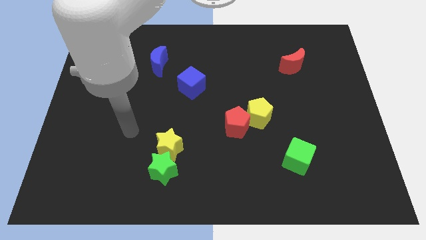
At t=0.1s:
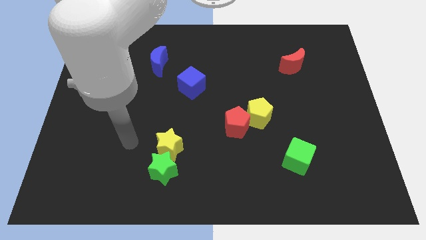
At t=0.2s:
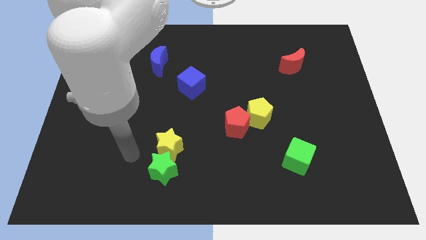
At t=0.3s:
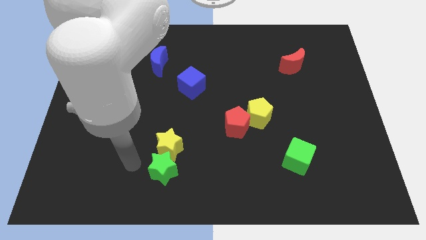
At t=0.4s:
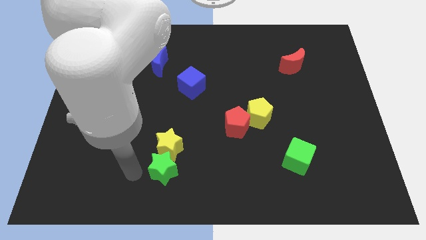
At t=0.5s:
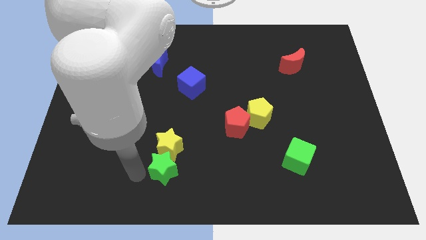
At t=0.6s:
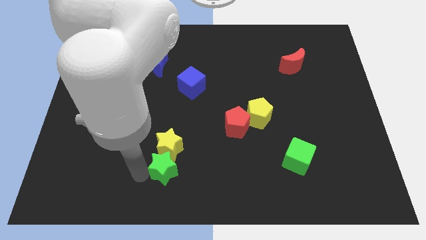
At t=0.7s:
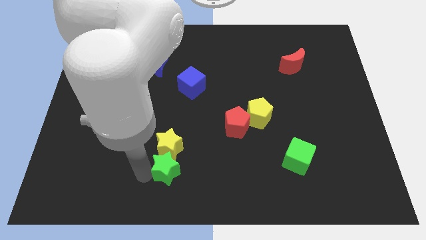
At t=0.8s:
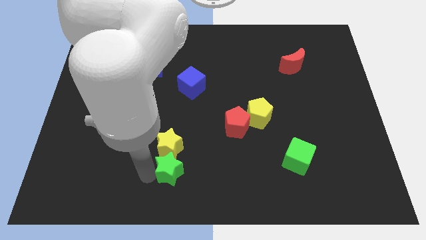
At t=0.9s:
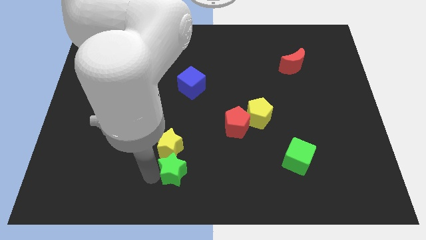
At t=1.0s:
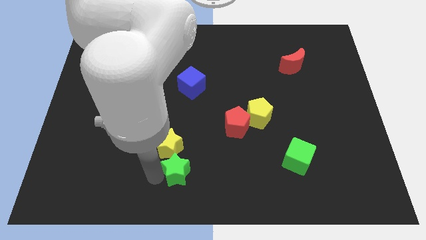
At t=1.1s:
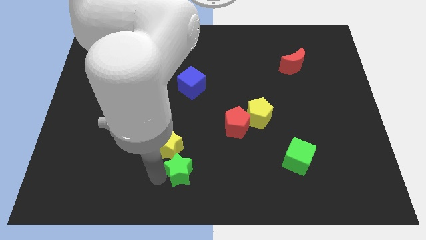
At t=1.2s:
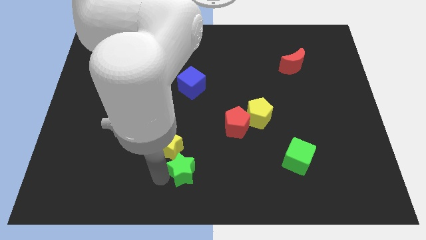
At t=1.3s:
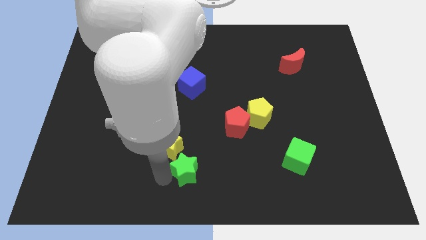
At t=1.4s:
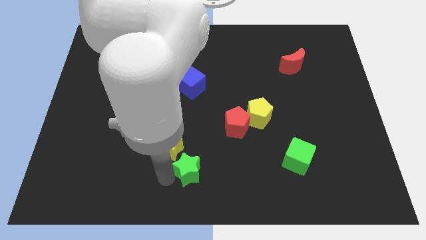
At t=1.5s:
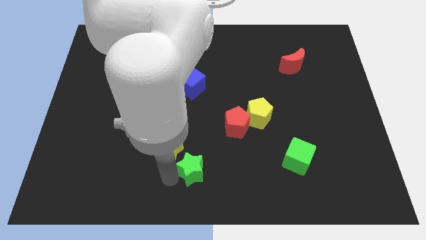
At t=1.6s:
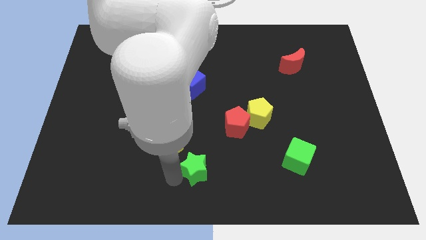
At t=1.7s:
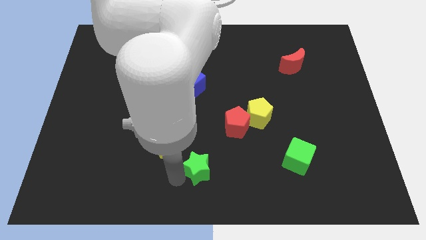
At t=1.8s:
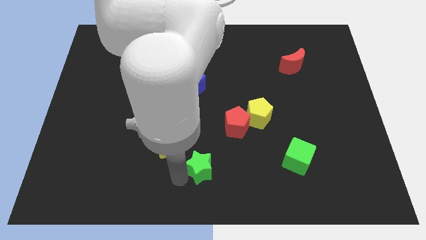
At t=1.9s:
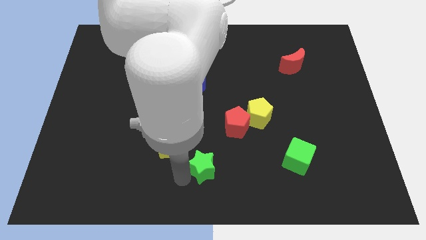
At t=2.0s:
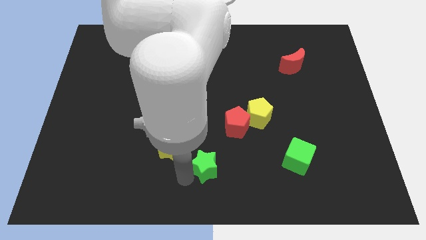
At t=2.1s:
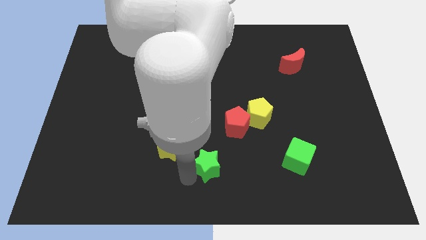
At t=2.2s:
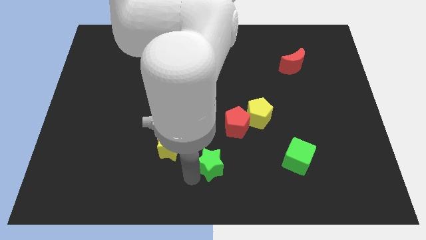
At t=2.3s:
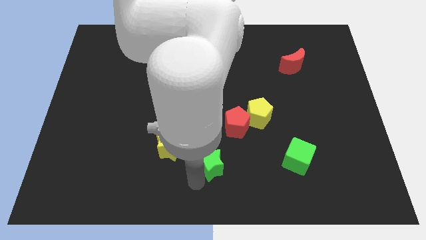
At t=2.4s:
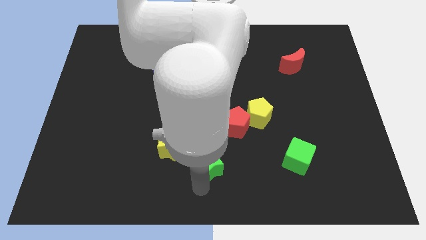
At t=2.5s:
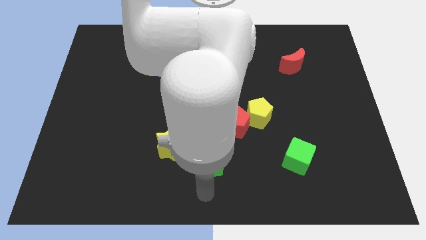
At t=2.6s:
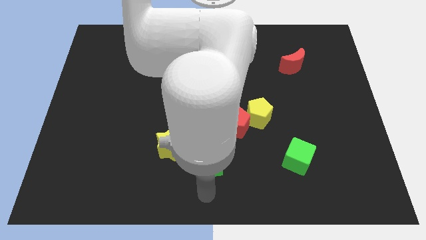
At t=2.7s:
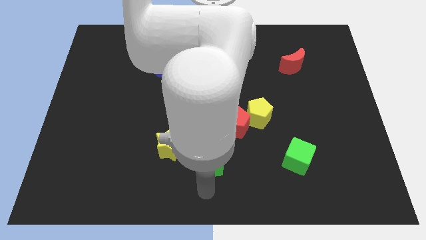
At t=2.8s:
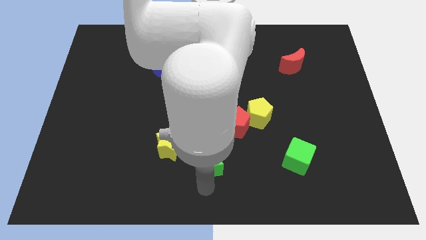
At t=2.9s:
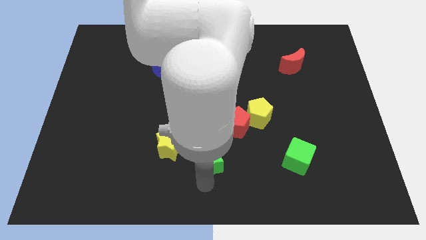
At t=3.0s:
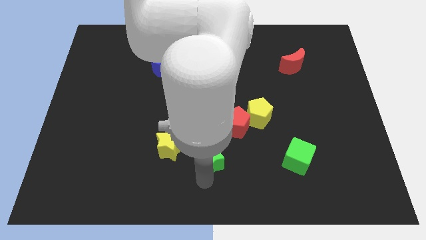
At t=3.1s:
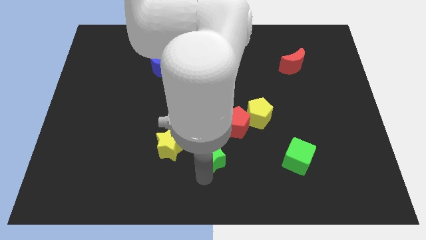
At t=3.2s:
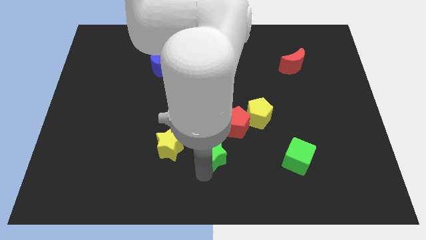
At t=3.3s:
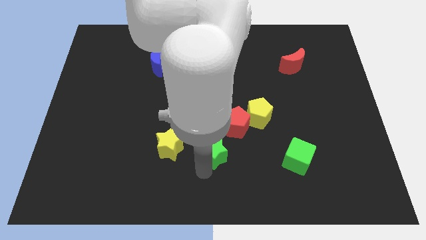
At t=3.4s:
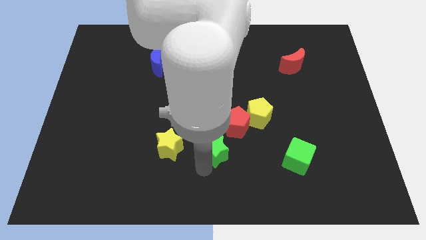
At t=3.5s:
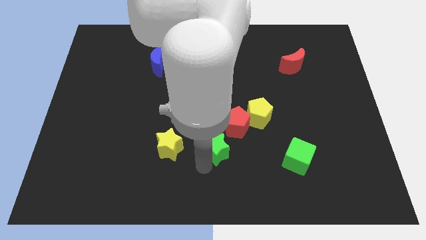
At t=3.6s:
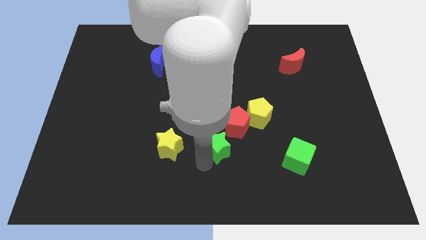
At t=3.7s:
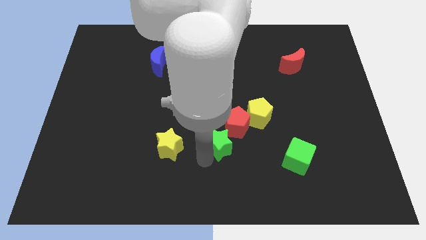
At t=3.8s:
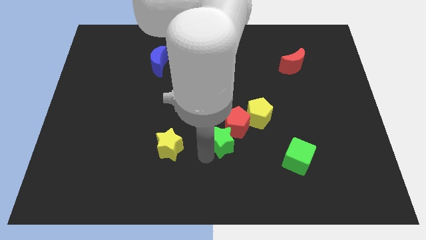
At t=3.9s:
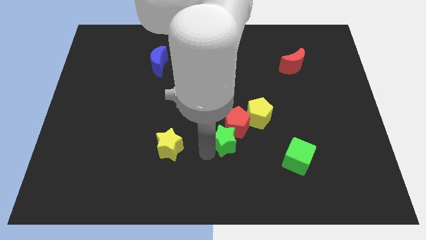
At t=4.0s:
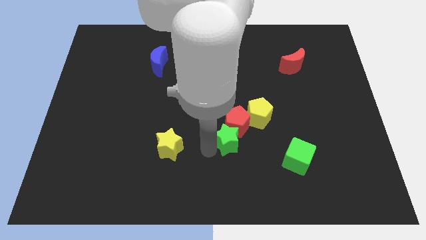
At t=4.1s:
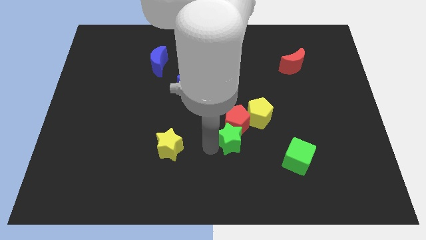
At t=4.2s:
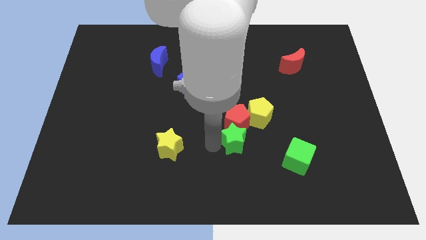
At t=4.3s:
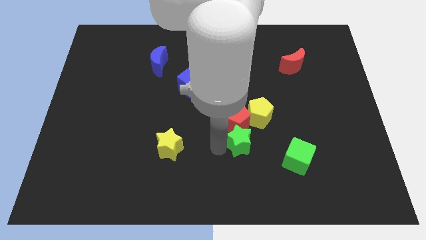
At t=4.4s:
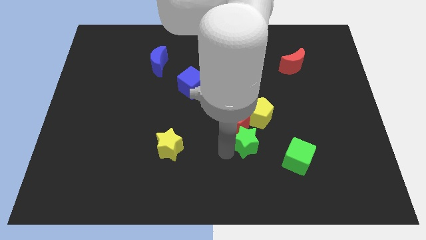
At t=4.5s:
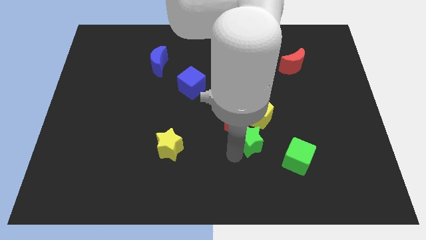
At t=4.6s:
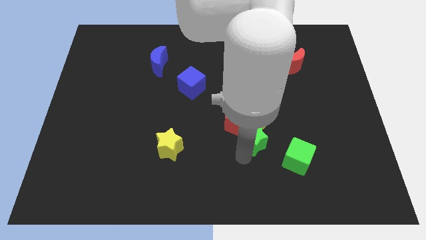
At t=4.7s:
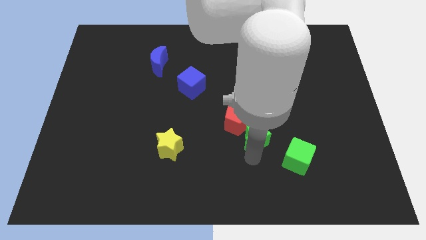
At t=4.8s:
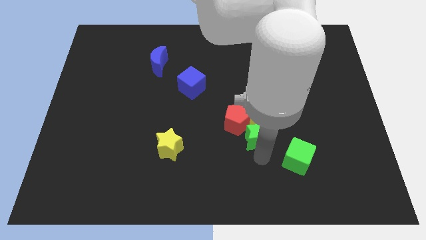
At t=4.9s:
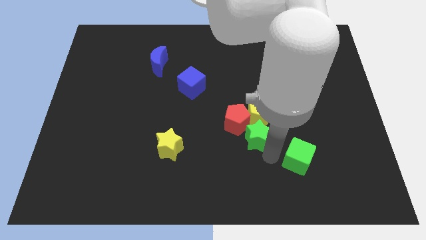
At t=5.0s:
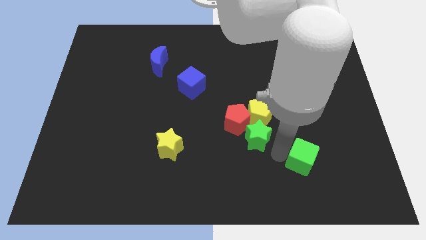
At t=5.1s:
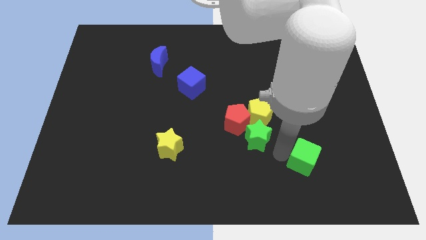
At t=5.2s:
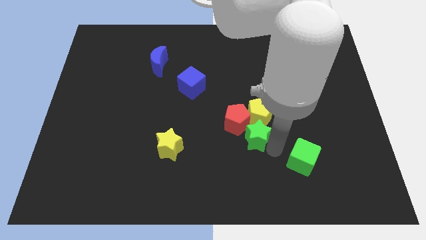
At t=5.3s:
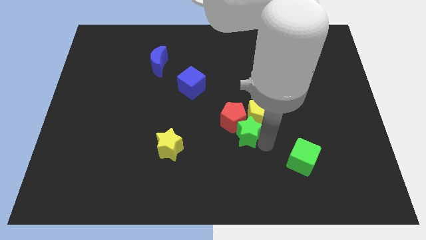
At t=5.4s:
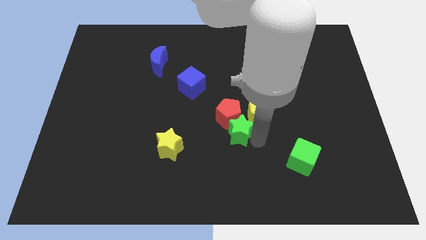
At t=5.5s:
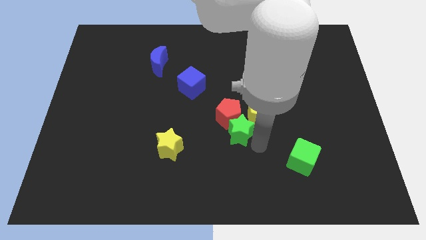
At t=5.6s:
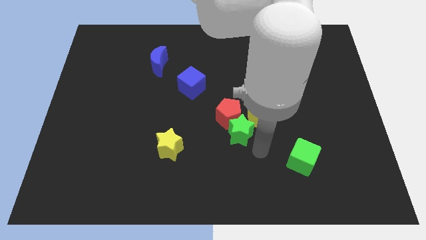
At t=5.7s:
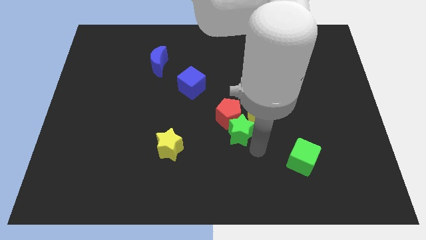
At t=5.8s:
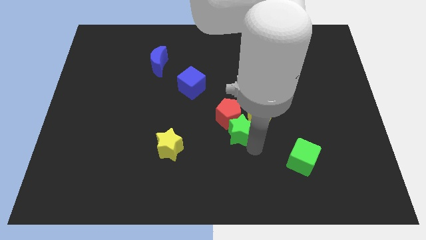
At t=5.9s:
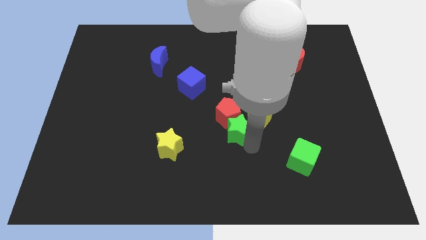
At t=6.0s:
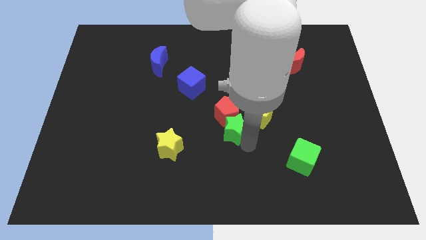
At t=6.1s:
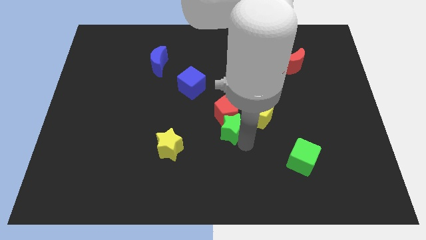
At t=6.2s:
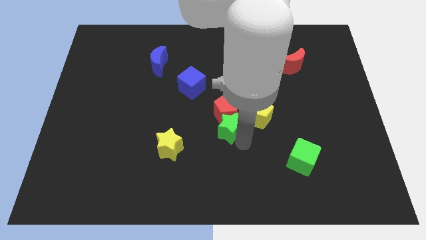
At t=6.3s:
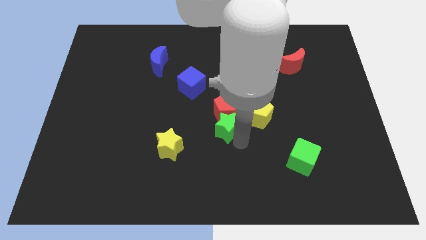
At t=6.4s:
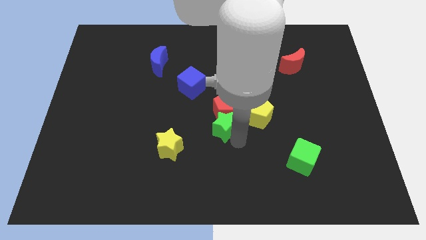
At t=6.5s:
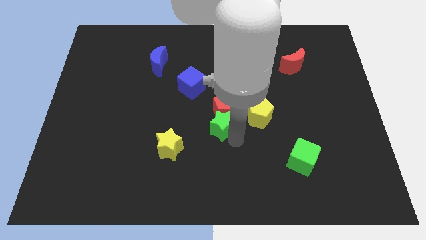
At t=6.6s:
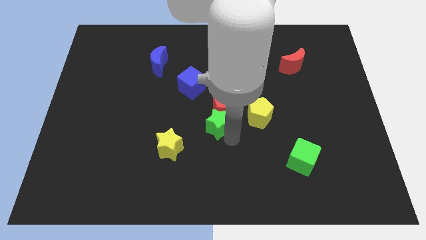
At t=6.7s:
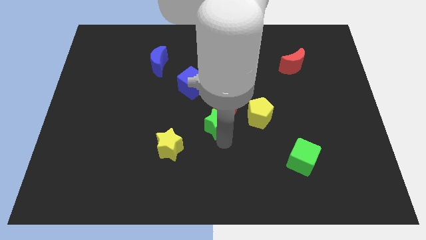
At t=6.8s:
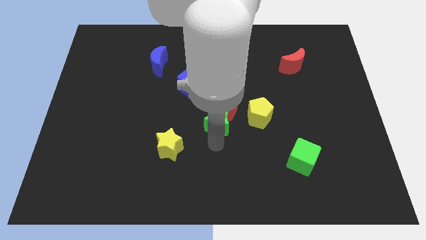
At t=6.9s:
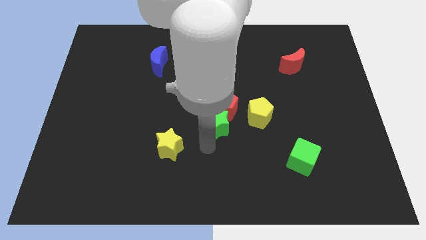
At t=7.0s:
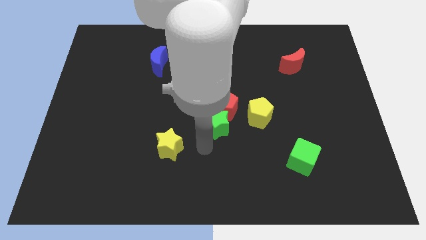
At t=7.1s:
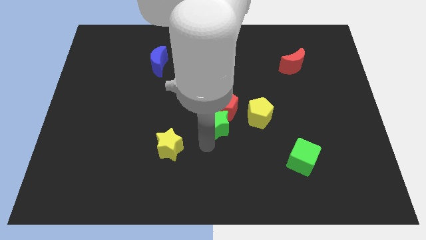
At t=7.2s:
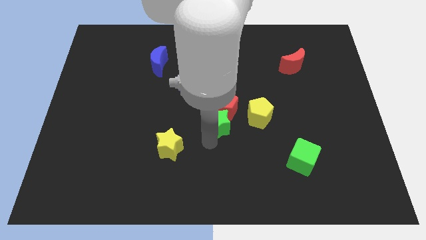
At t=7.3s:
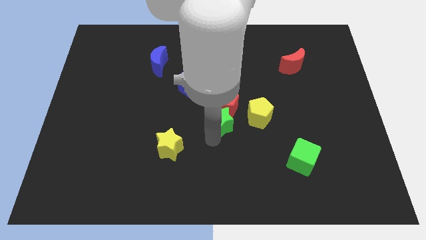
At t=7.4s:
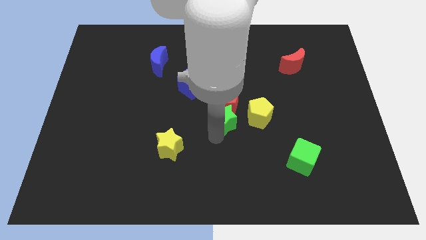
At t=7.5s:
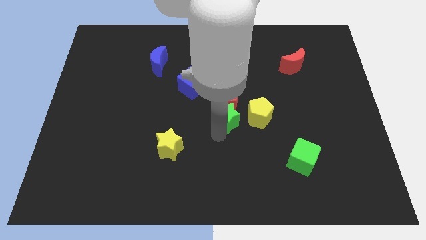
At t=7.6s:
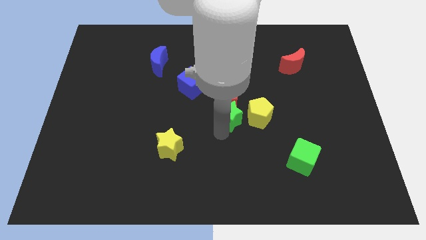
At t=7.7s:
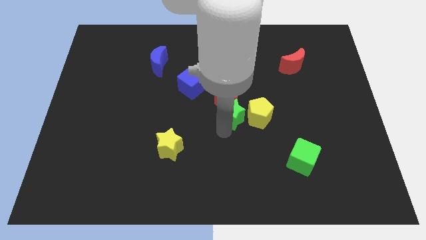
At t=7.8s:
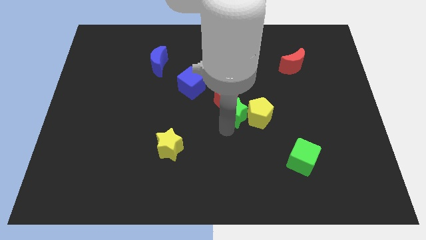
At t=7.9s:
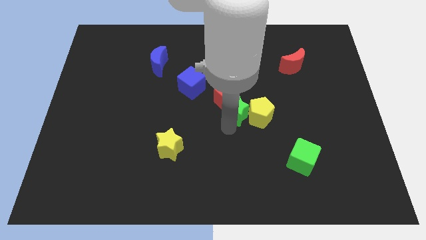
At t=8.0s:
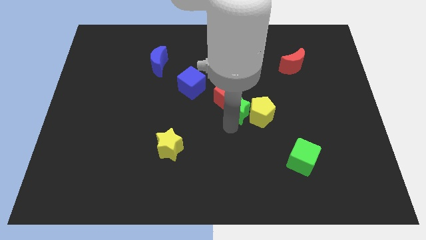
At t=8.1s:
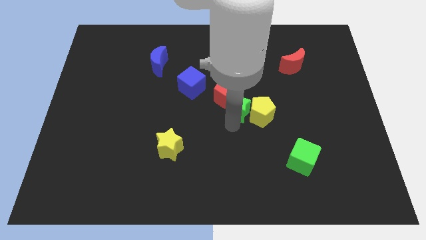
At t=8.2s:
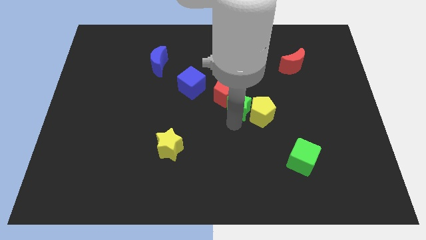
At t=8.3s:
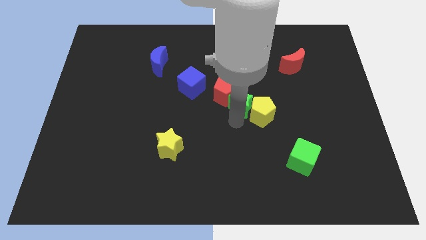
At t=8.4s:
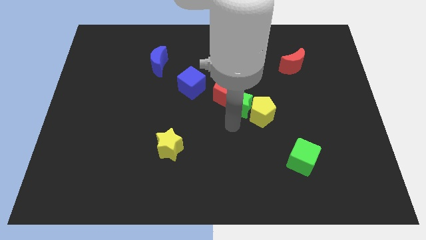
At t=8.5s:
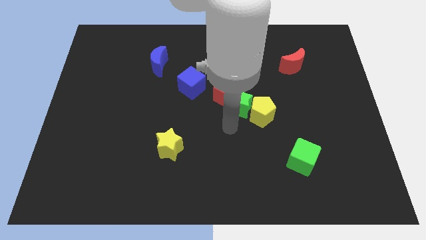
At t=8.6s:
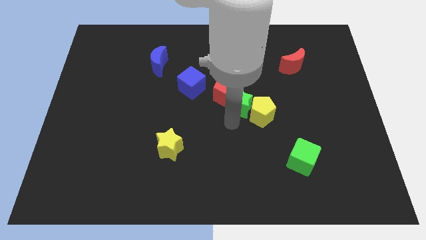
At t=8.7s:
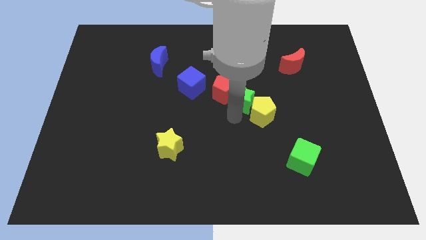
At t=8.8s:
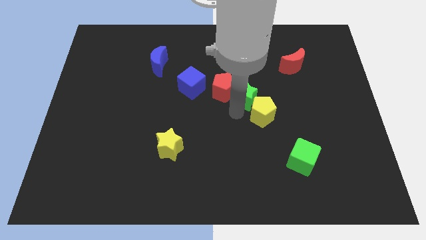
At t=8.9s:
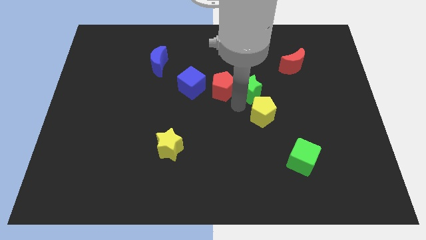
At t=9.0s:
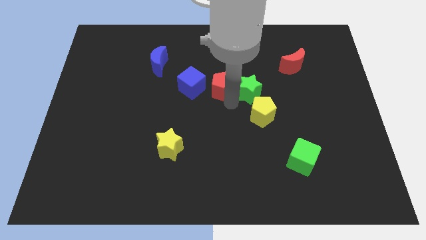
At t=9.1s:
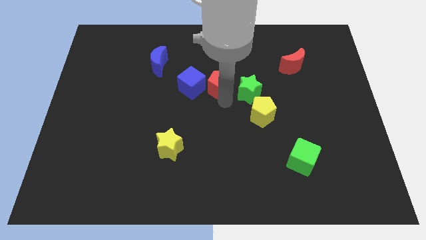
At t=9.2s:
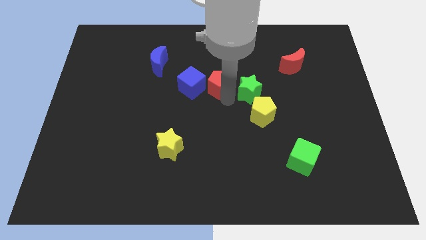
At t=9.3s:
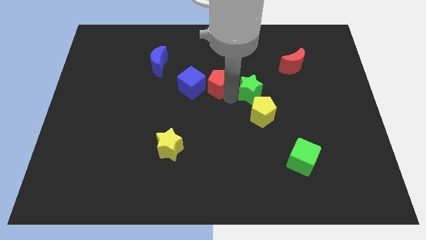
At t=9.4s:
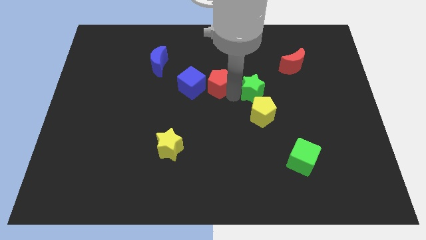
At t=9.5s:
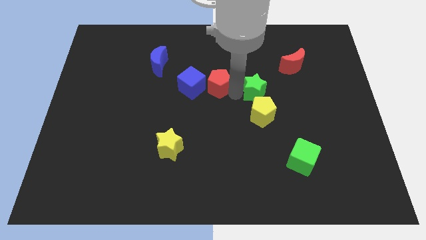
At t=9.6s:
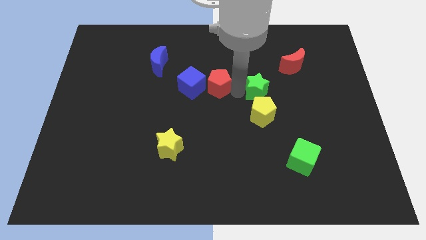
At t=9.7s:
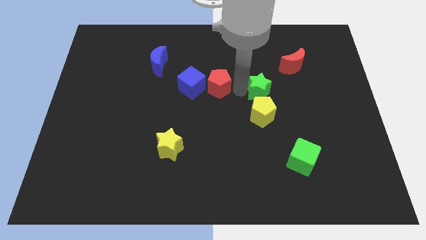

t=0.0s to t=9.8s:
put the green star to the bottom left side of the red moon
